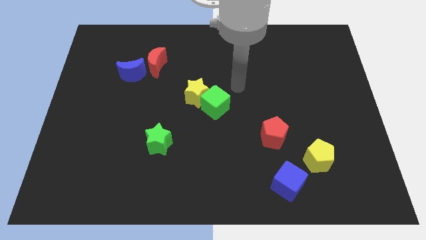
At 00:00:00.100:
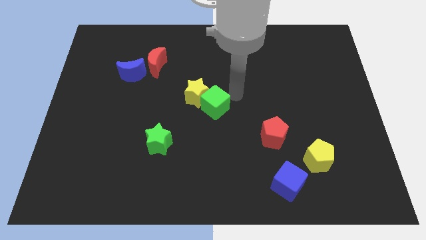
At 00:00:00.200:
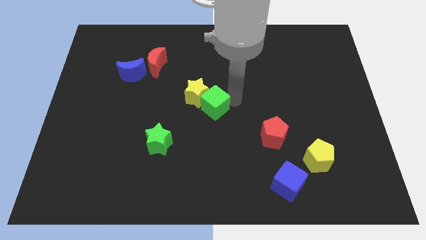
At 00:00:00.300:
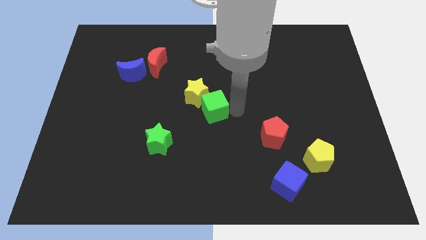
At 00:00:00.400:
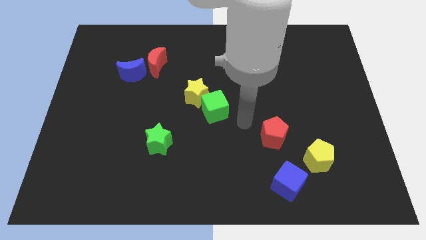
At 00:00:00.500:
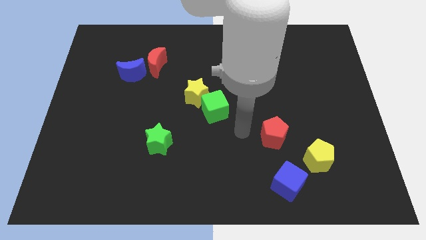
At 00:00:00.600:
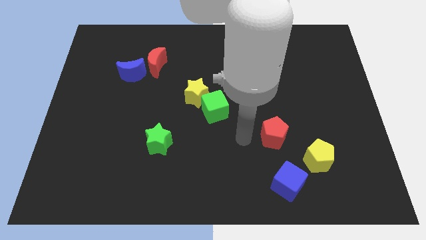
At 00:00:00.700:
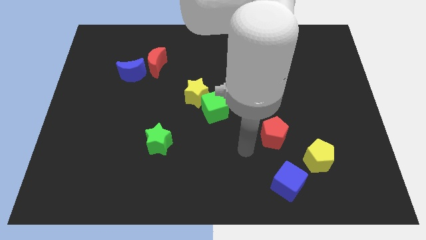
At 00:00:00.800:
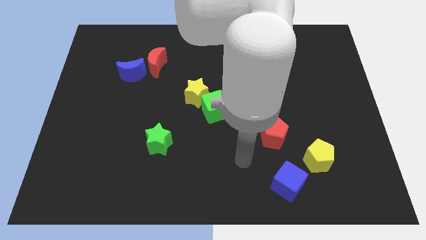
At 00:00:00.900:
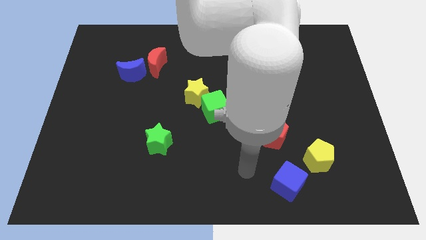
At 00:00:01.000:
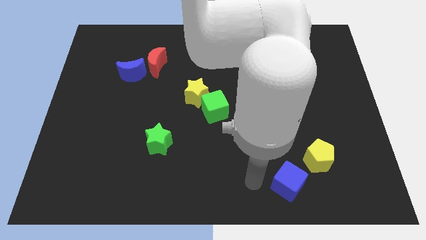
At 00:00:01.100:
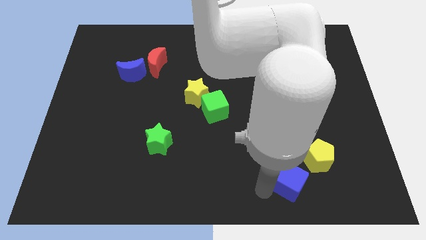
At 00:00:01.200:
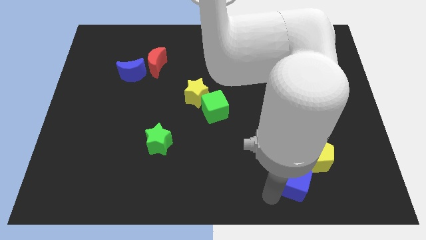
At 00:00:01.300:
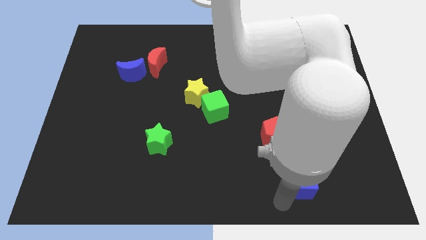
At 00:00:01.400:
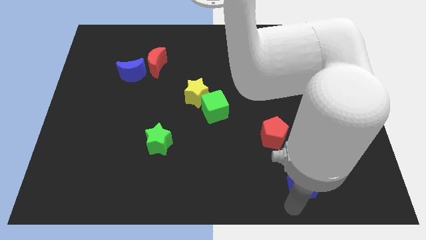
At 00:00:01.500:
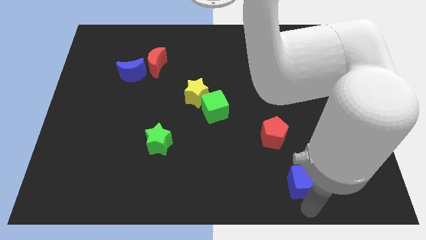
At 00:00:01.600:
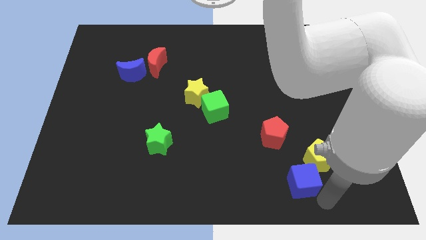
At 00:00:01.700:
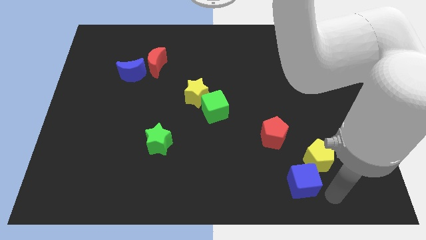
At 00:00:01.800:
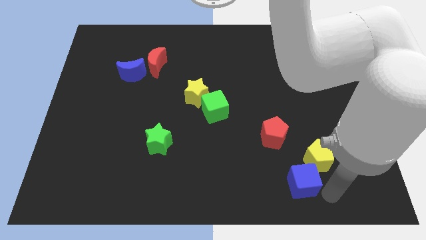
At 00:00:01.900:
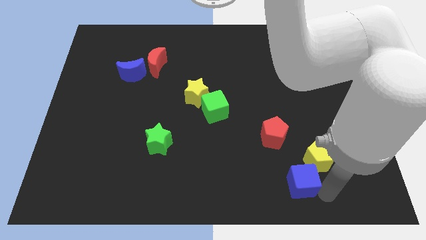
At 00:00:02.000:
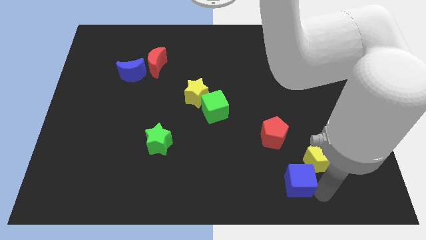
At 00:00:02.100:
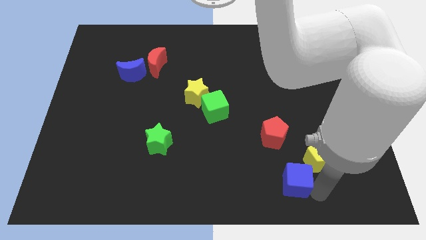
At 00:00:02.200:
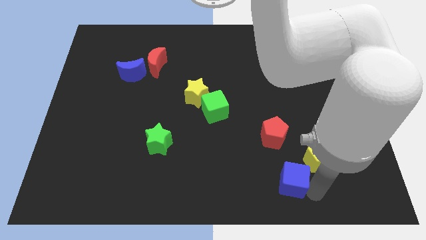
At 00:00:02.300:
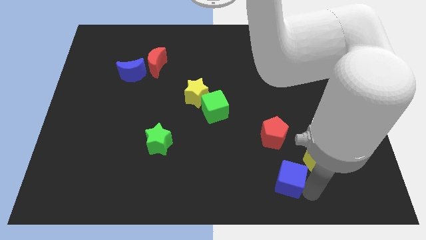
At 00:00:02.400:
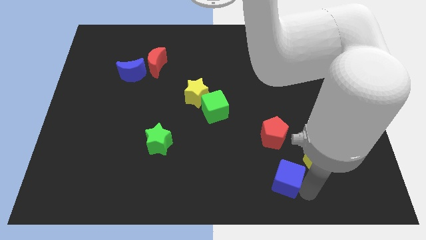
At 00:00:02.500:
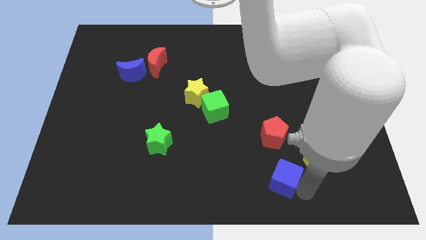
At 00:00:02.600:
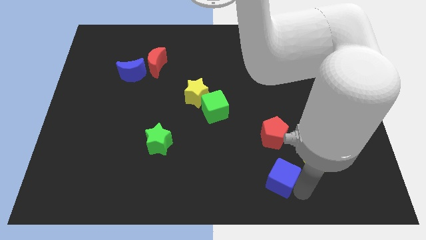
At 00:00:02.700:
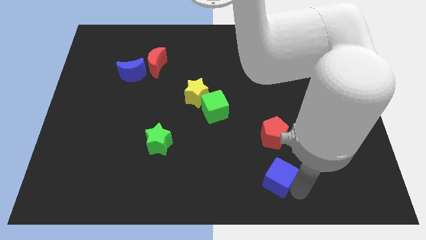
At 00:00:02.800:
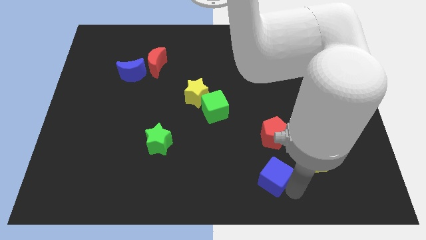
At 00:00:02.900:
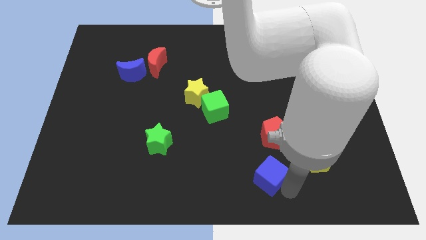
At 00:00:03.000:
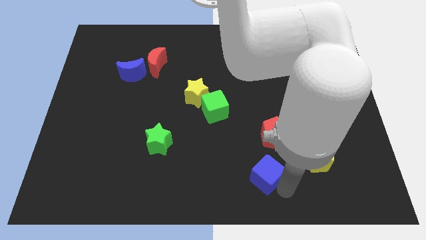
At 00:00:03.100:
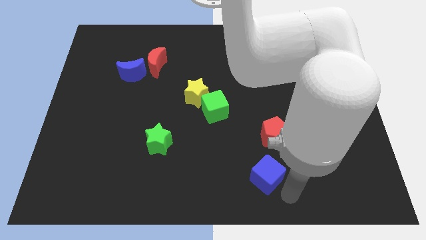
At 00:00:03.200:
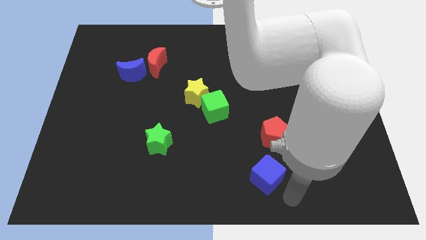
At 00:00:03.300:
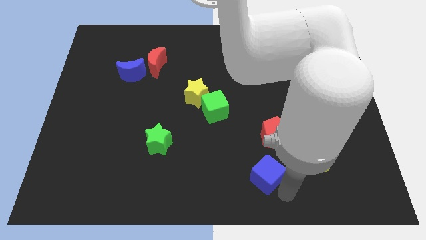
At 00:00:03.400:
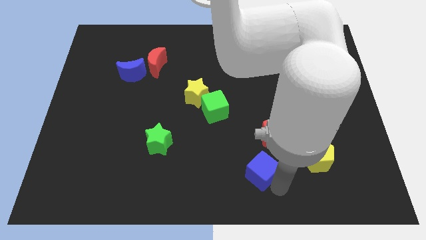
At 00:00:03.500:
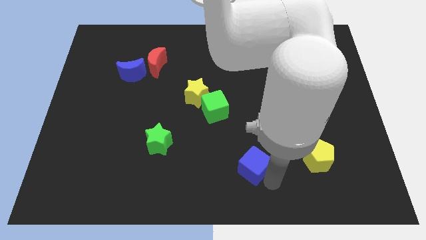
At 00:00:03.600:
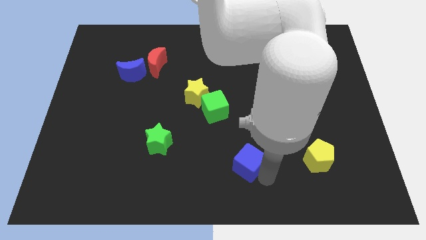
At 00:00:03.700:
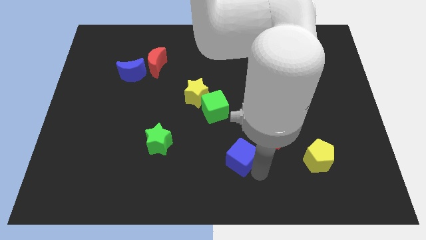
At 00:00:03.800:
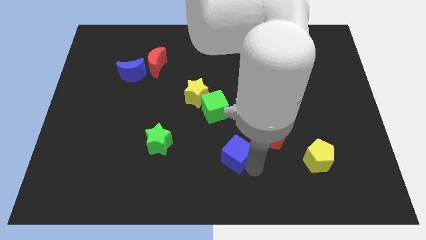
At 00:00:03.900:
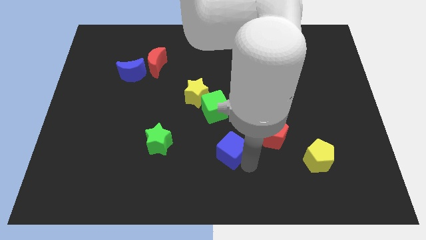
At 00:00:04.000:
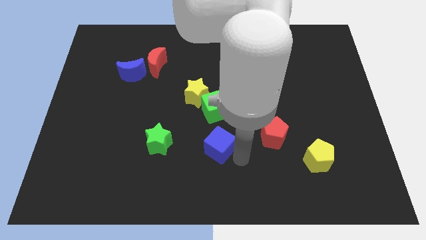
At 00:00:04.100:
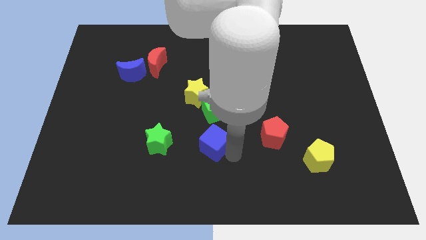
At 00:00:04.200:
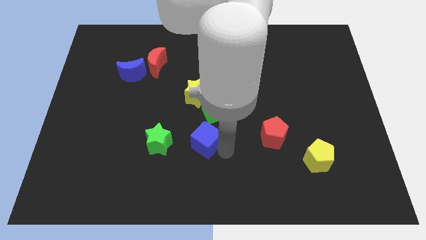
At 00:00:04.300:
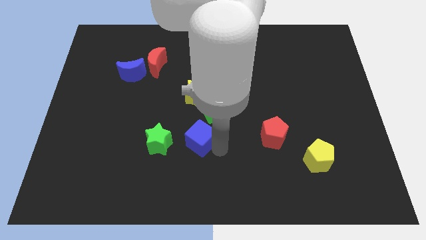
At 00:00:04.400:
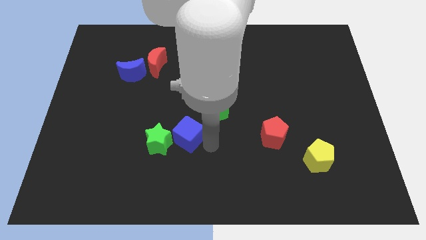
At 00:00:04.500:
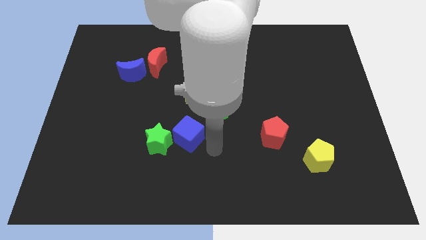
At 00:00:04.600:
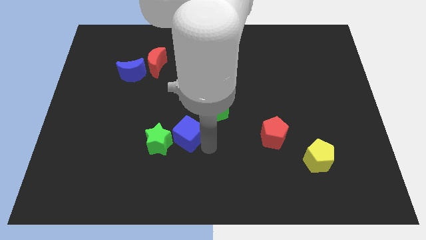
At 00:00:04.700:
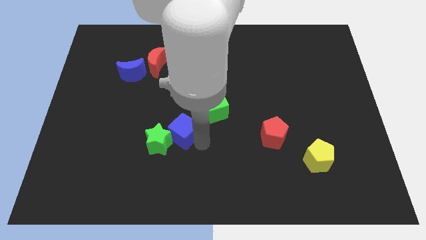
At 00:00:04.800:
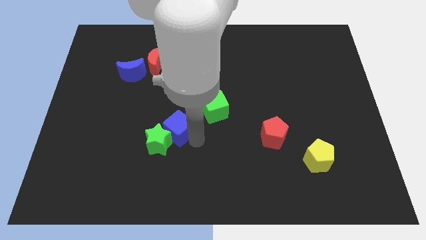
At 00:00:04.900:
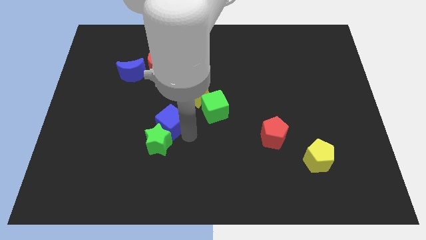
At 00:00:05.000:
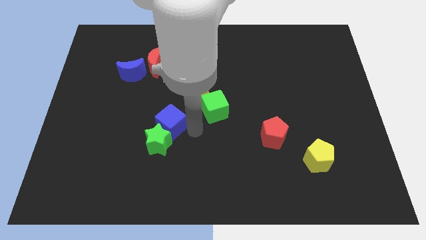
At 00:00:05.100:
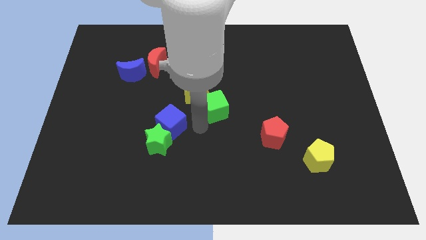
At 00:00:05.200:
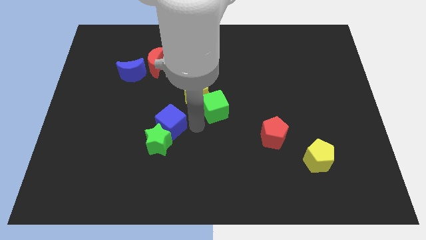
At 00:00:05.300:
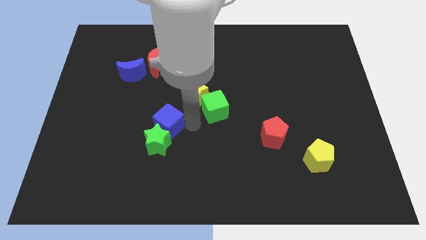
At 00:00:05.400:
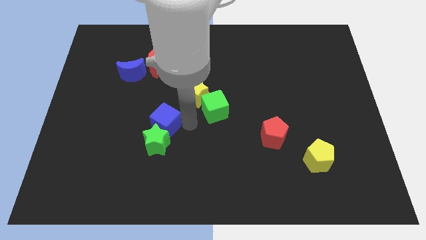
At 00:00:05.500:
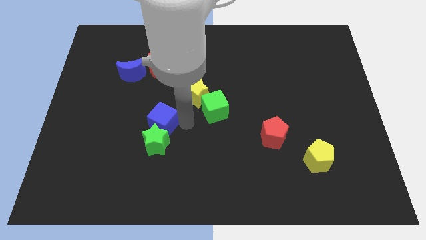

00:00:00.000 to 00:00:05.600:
push the blue cube to the top left of the green star
